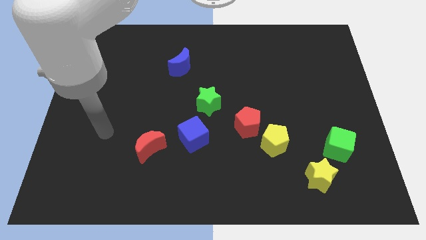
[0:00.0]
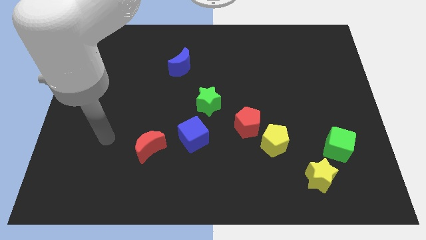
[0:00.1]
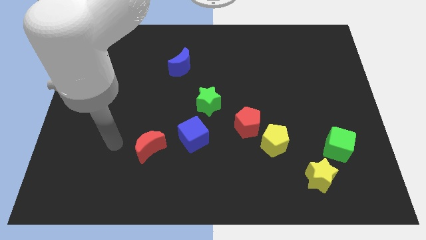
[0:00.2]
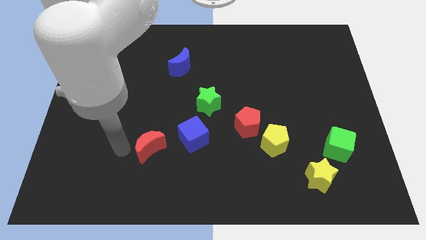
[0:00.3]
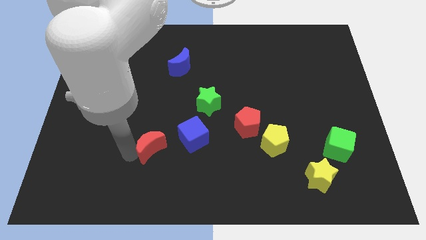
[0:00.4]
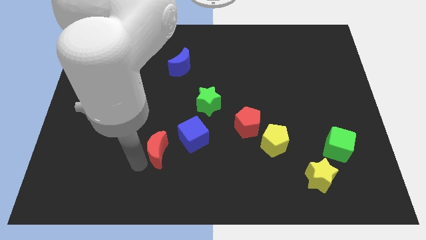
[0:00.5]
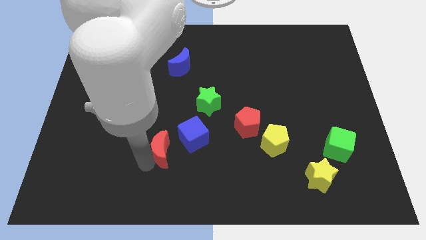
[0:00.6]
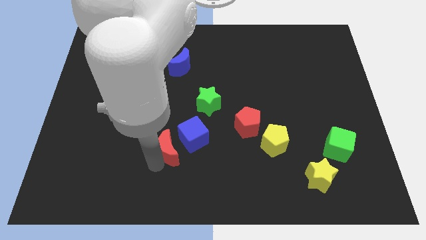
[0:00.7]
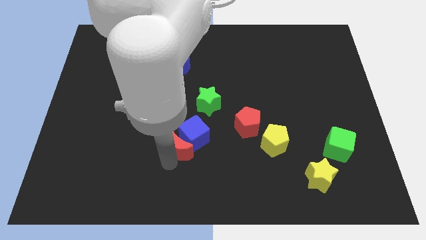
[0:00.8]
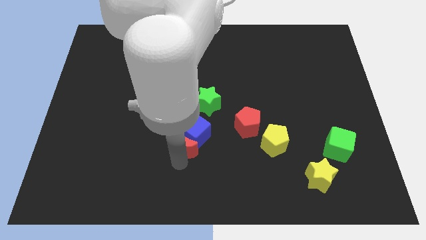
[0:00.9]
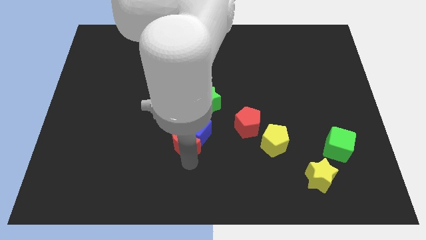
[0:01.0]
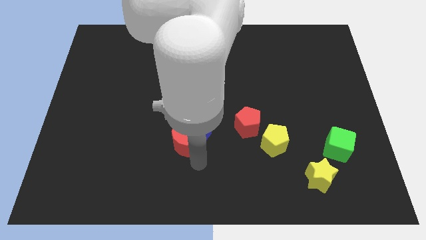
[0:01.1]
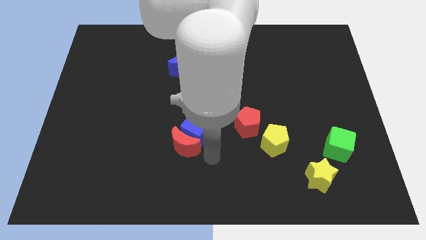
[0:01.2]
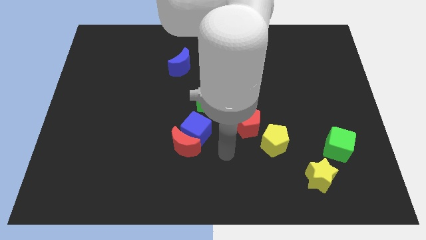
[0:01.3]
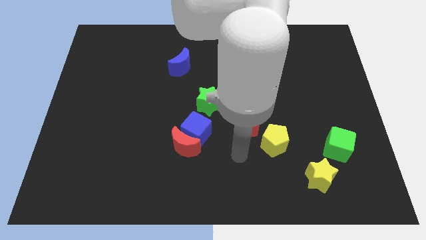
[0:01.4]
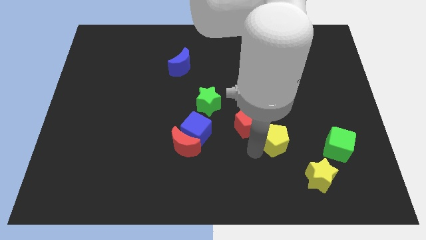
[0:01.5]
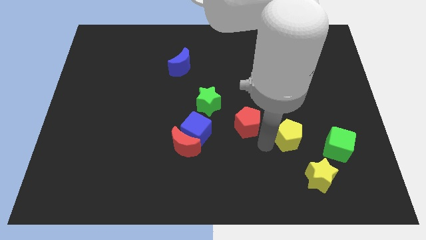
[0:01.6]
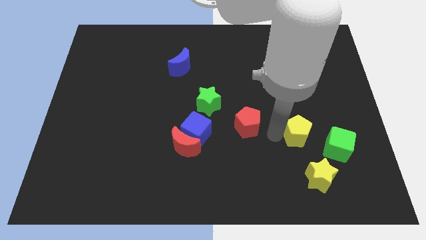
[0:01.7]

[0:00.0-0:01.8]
move the red pentagon away from the yellow pentagon

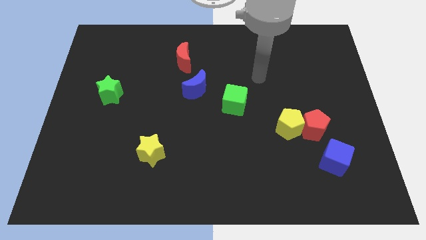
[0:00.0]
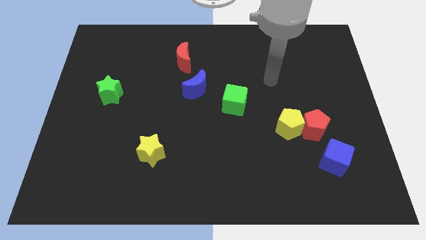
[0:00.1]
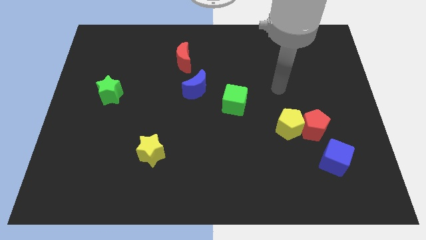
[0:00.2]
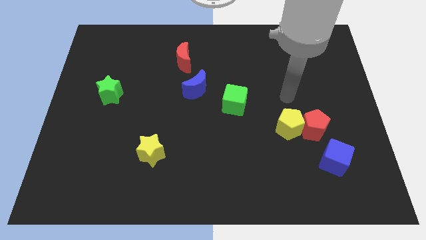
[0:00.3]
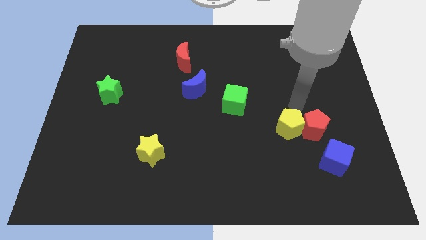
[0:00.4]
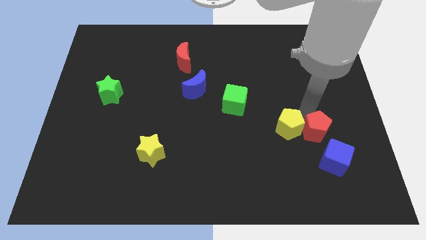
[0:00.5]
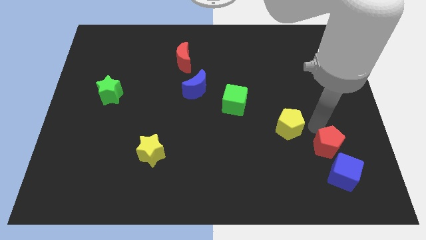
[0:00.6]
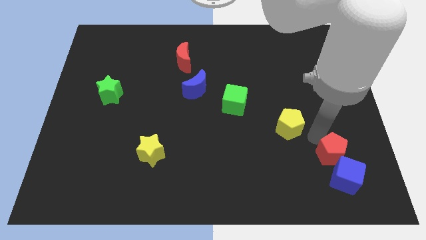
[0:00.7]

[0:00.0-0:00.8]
separate the yellow pentagon from the red pentagon

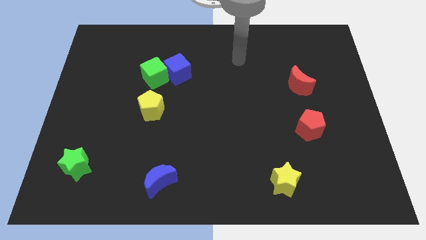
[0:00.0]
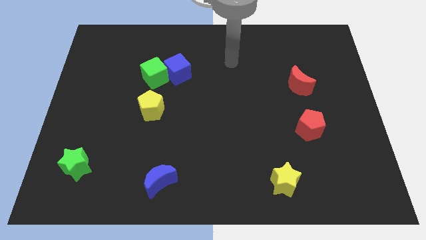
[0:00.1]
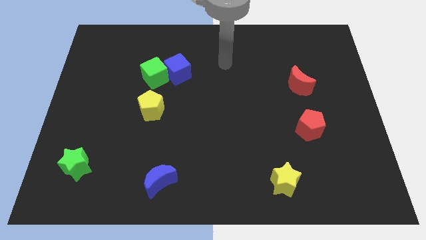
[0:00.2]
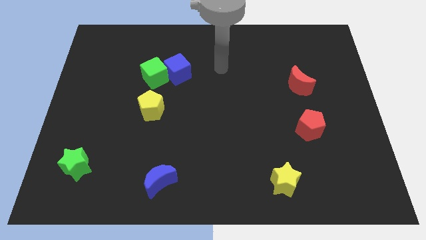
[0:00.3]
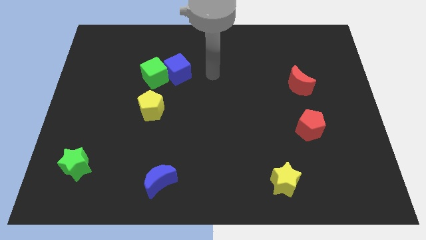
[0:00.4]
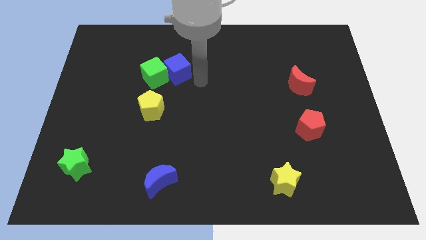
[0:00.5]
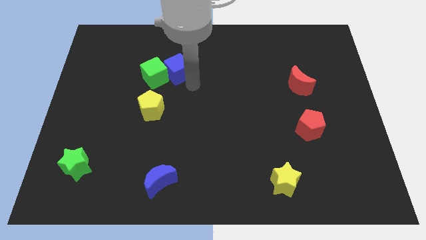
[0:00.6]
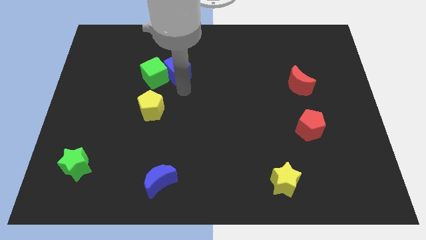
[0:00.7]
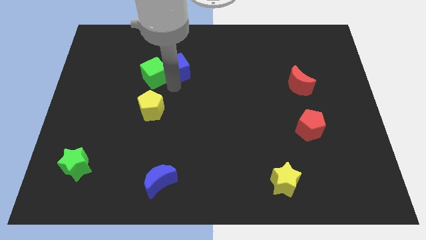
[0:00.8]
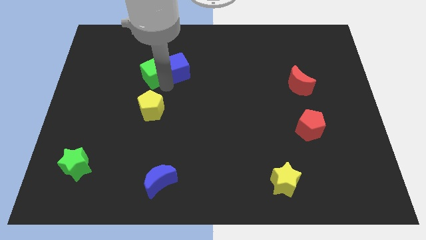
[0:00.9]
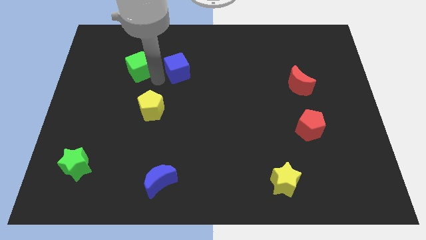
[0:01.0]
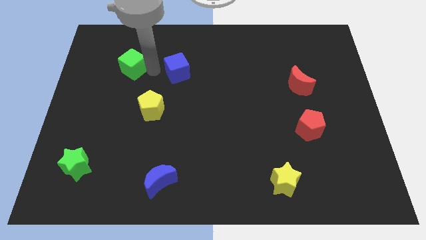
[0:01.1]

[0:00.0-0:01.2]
separate the blue cube from the green cube

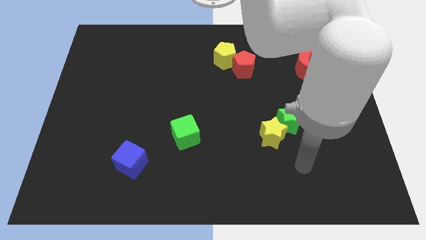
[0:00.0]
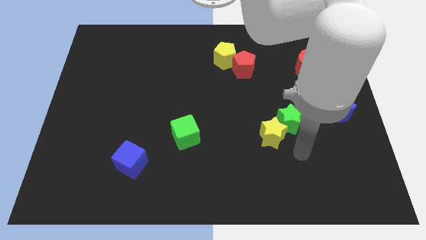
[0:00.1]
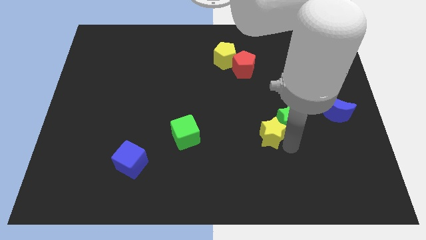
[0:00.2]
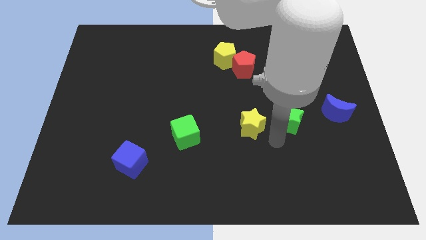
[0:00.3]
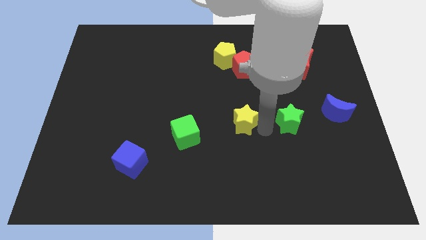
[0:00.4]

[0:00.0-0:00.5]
pull the green star apart from the yellow star

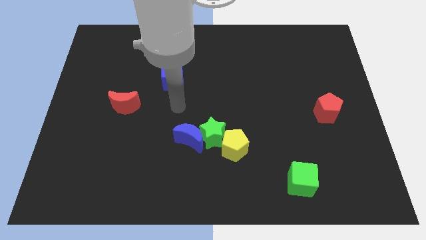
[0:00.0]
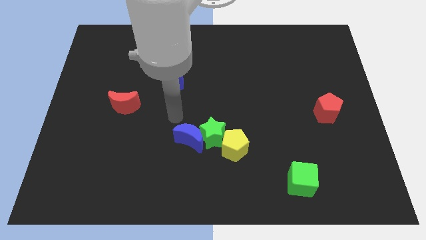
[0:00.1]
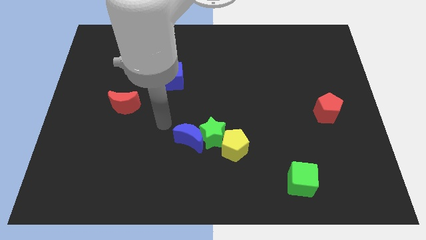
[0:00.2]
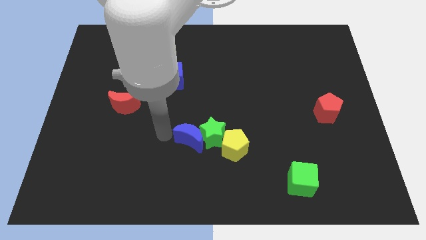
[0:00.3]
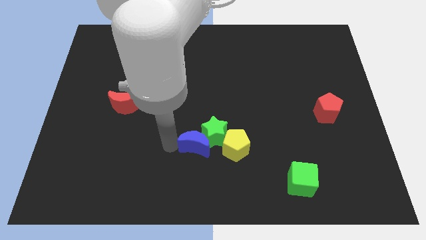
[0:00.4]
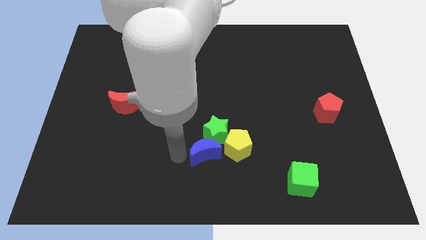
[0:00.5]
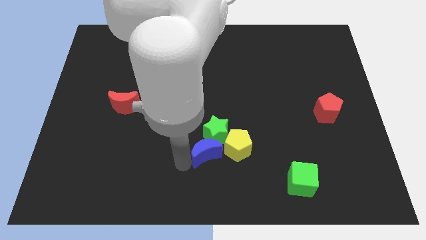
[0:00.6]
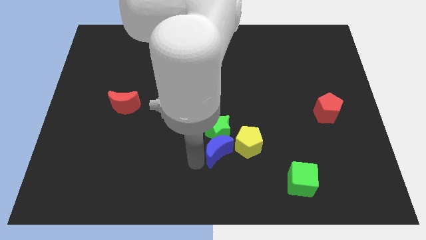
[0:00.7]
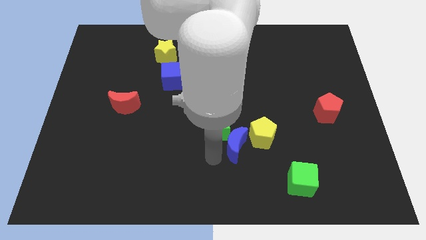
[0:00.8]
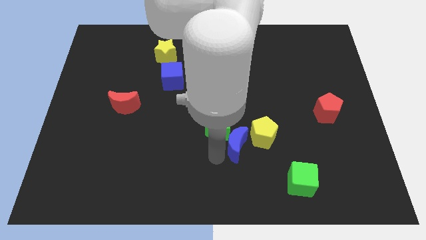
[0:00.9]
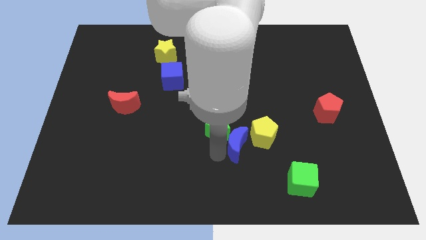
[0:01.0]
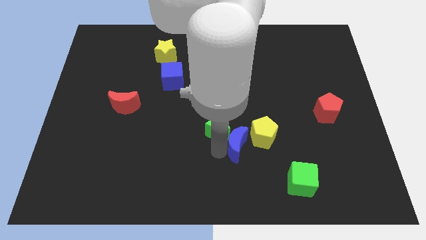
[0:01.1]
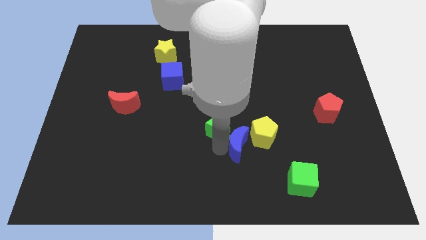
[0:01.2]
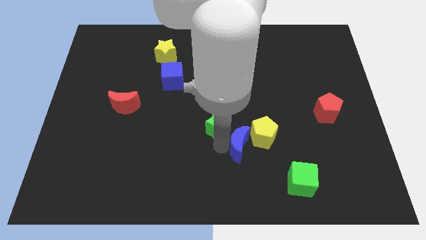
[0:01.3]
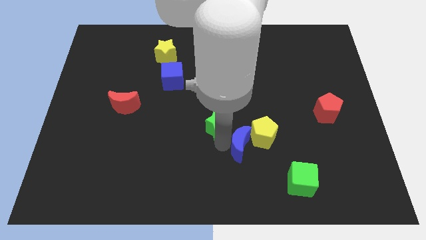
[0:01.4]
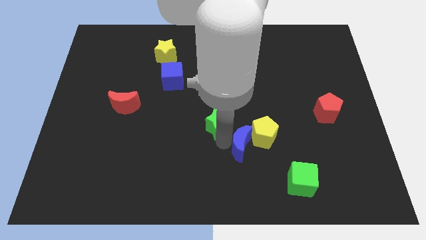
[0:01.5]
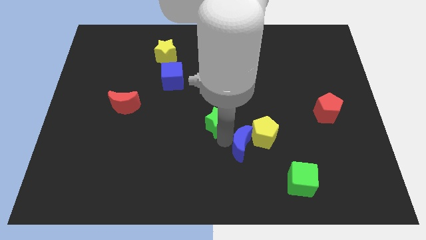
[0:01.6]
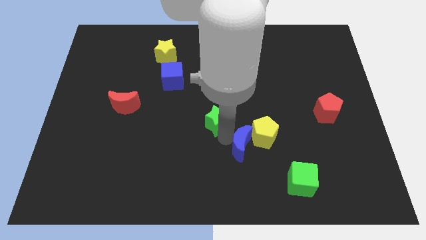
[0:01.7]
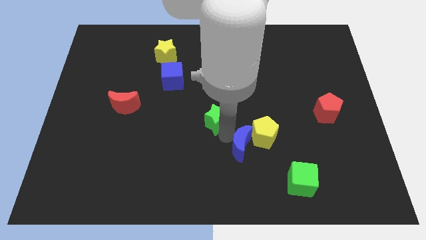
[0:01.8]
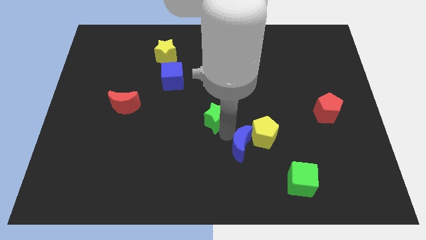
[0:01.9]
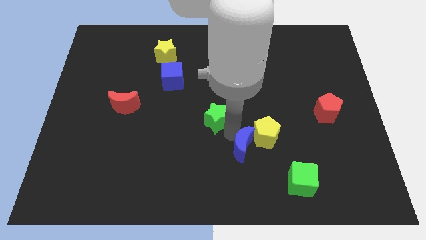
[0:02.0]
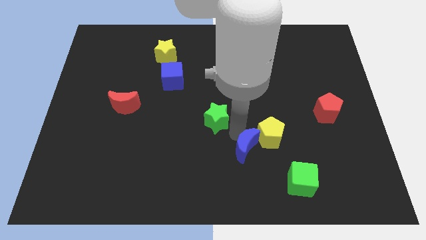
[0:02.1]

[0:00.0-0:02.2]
pull the green star apart from the blue moon and yellow pentagon

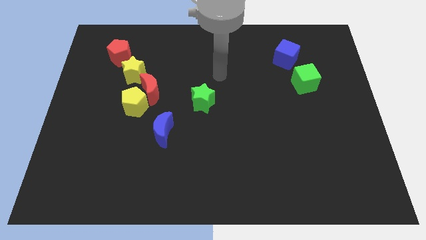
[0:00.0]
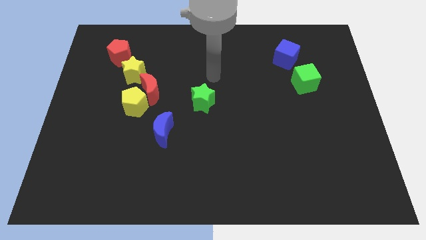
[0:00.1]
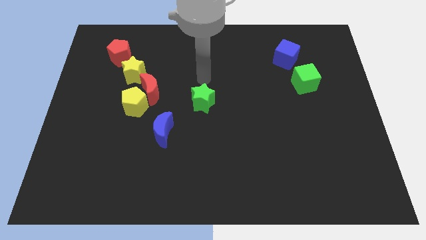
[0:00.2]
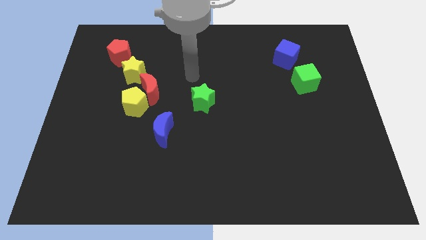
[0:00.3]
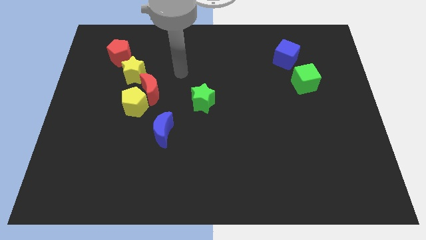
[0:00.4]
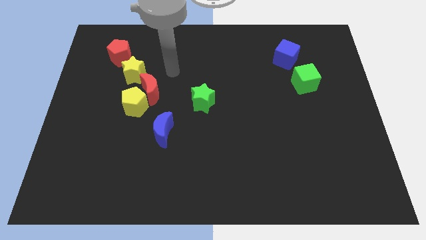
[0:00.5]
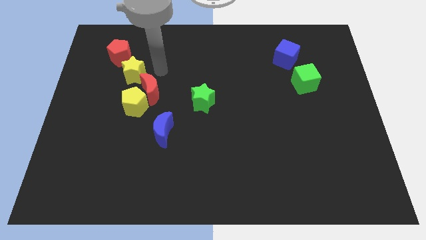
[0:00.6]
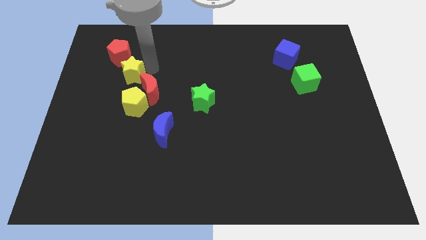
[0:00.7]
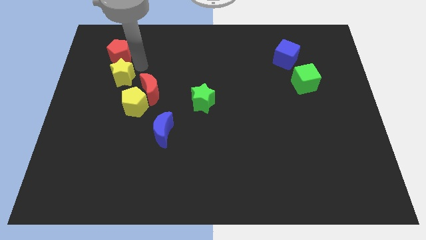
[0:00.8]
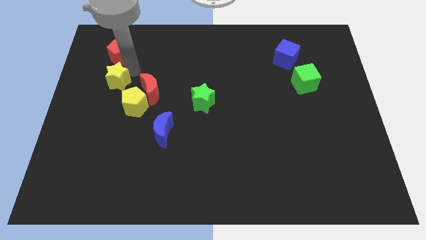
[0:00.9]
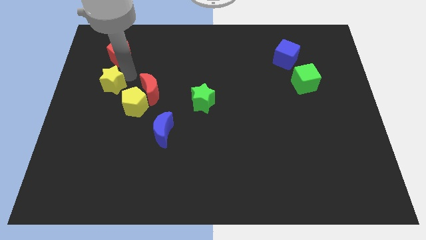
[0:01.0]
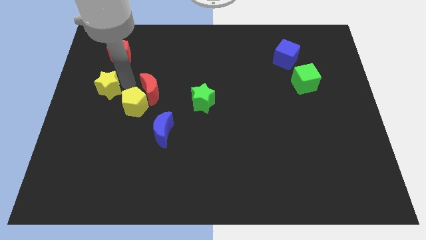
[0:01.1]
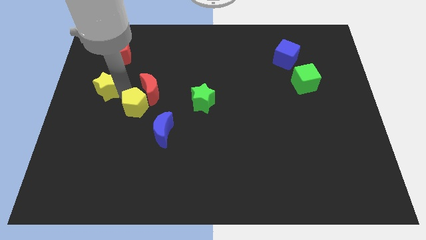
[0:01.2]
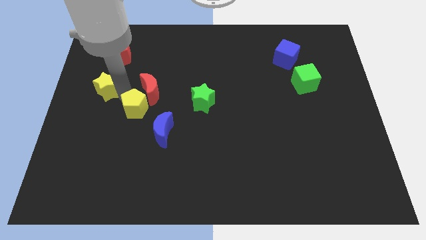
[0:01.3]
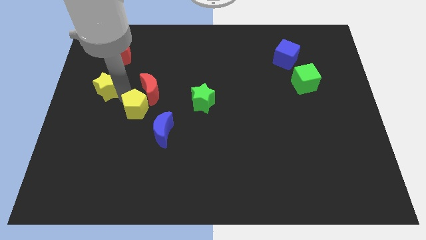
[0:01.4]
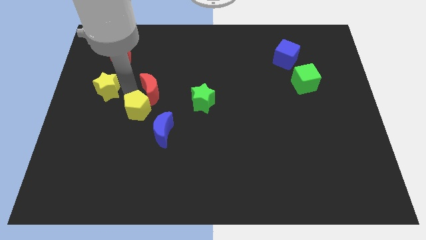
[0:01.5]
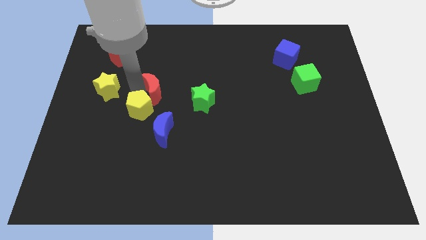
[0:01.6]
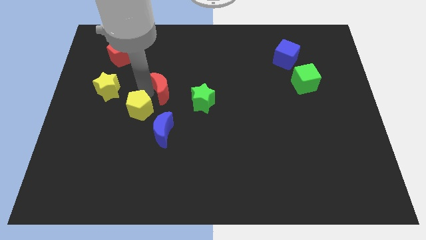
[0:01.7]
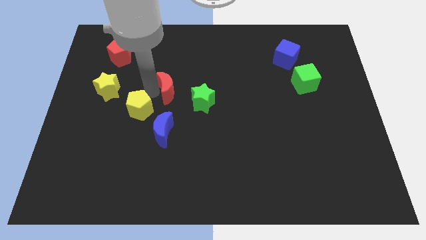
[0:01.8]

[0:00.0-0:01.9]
move the red moon away from the yellow pentagon and yellow star

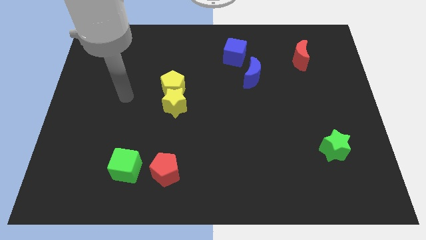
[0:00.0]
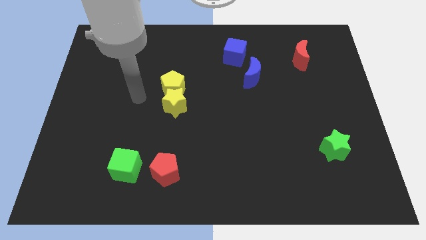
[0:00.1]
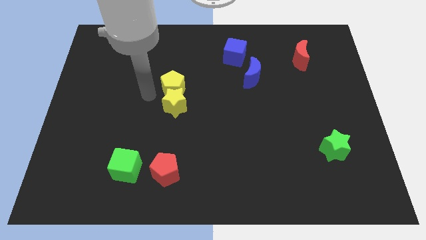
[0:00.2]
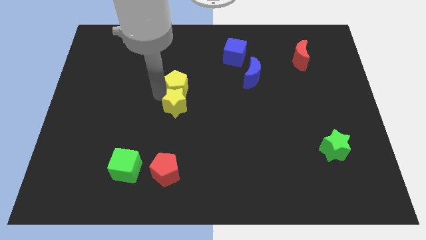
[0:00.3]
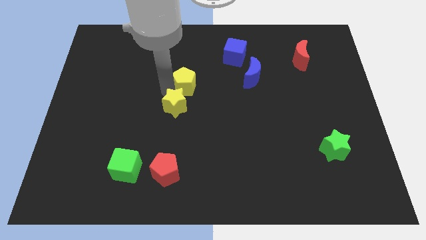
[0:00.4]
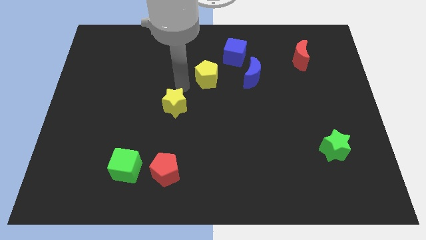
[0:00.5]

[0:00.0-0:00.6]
separate the yellow star from the yellow pentagon

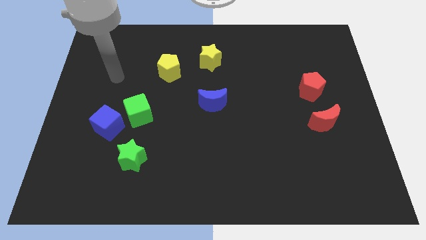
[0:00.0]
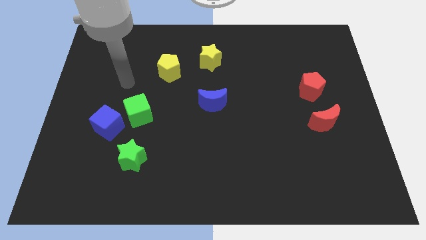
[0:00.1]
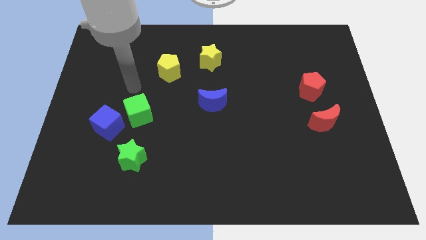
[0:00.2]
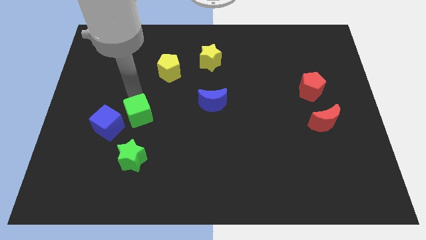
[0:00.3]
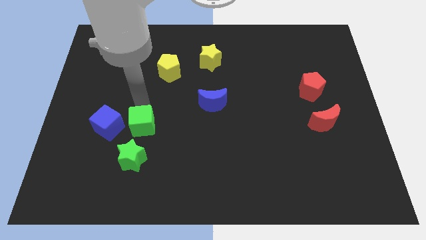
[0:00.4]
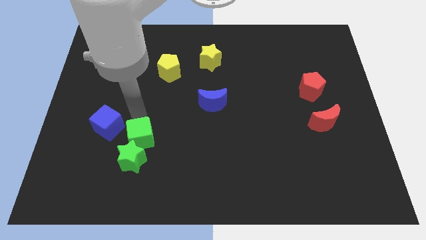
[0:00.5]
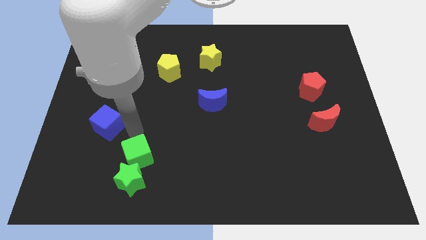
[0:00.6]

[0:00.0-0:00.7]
move the blue cube away from the green cube
